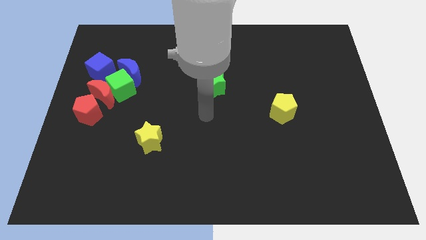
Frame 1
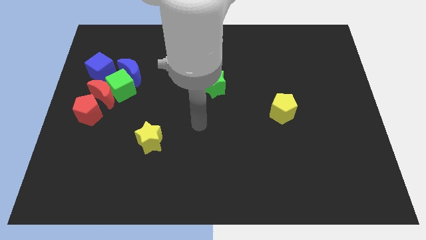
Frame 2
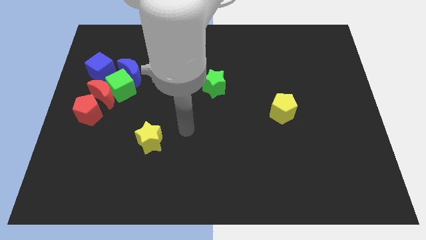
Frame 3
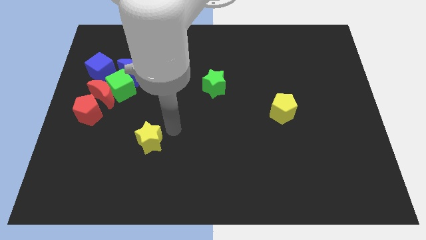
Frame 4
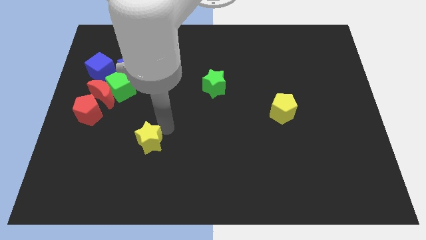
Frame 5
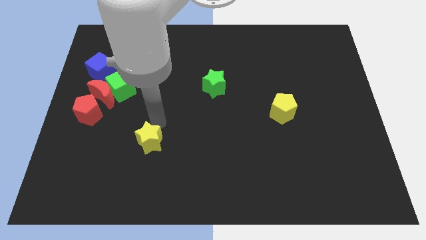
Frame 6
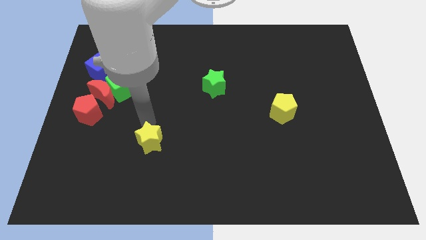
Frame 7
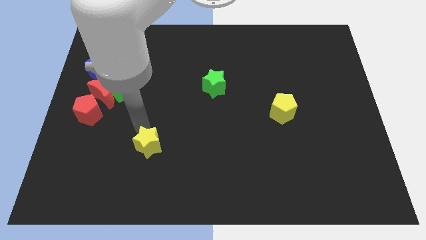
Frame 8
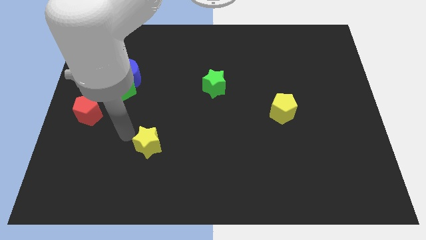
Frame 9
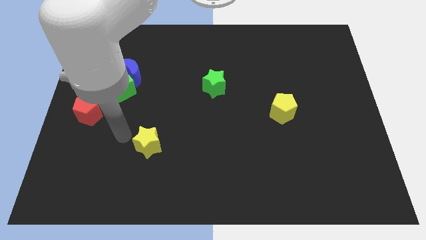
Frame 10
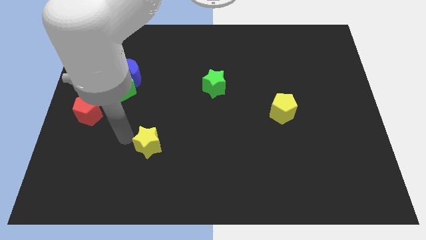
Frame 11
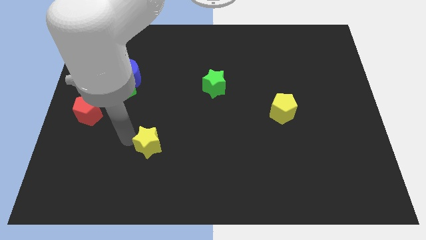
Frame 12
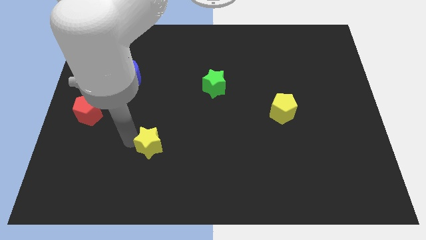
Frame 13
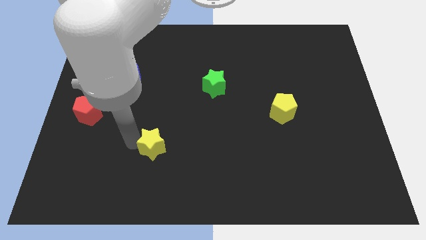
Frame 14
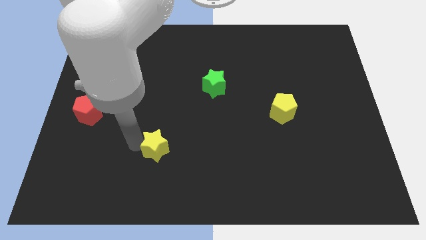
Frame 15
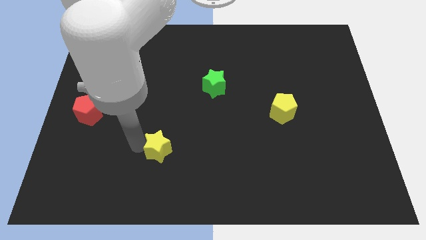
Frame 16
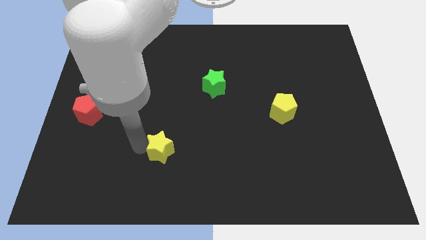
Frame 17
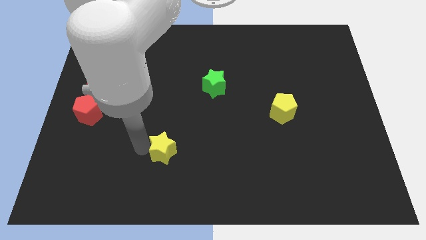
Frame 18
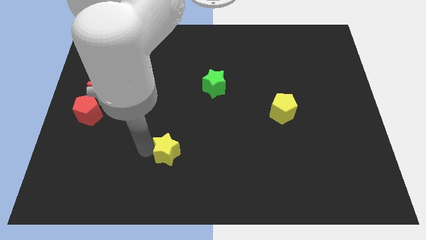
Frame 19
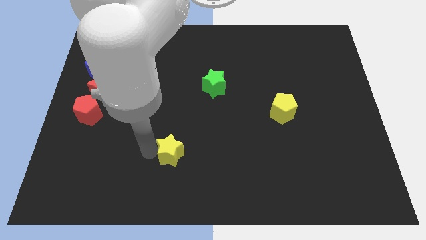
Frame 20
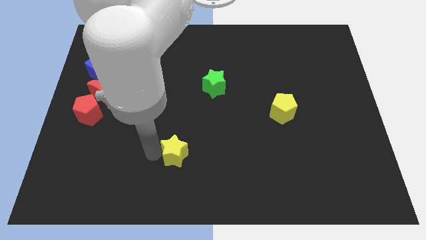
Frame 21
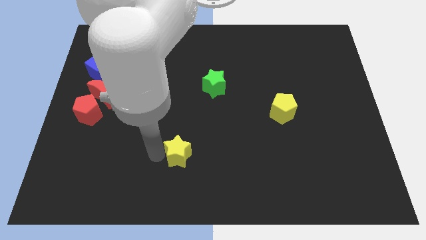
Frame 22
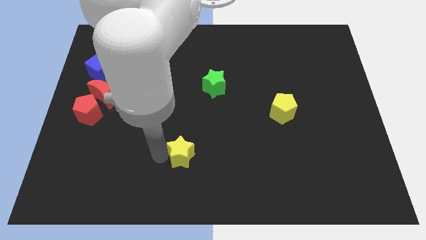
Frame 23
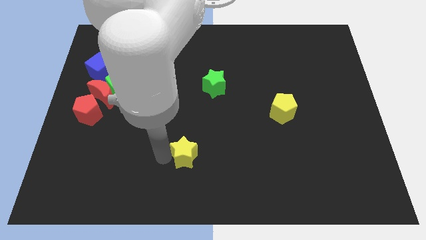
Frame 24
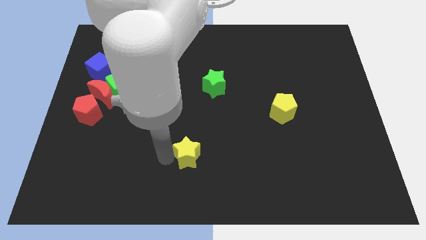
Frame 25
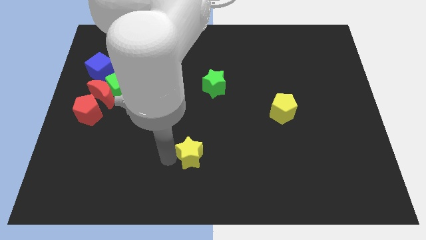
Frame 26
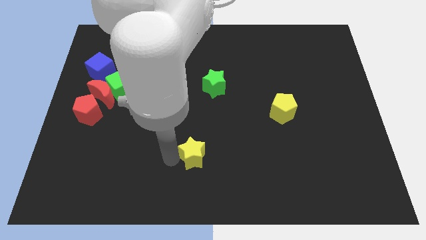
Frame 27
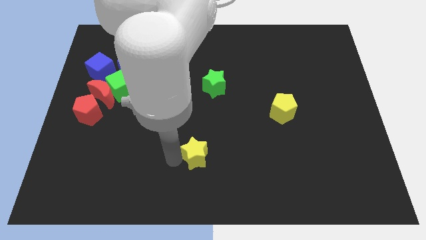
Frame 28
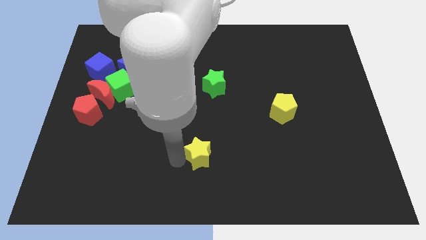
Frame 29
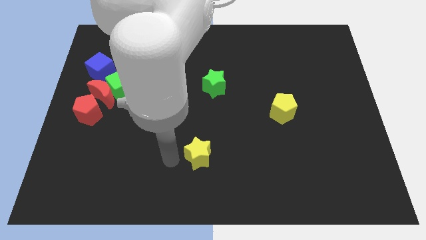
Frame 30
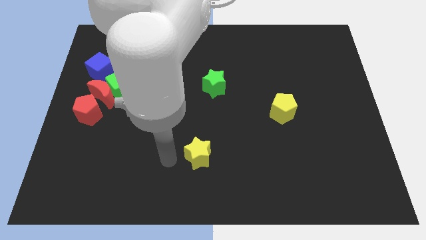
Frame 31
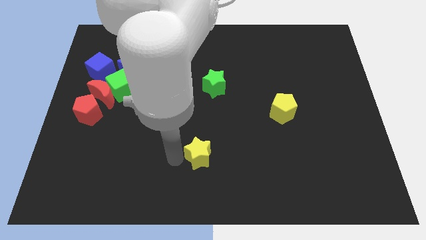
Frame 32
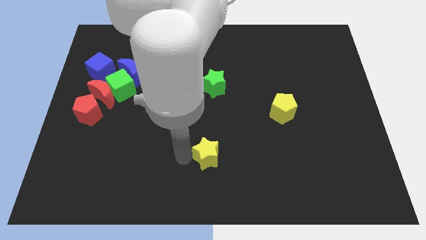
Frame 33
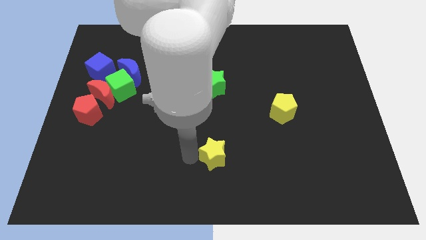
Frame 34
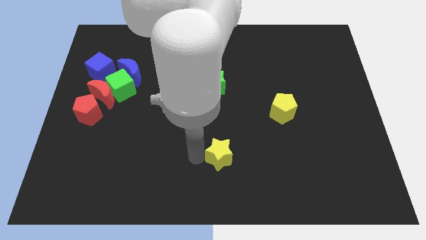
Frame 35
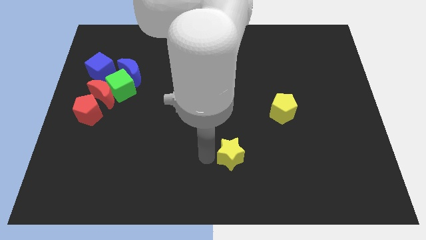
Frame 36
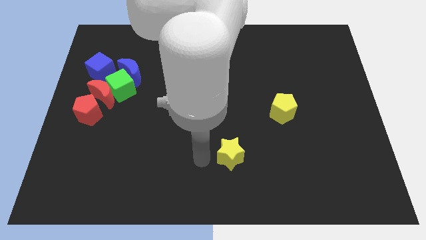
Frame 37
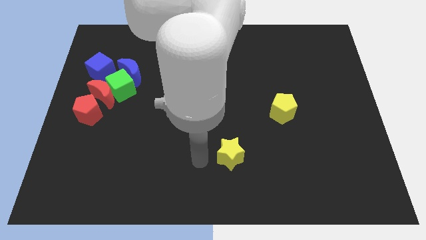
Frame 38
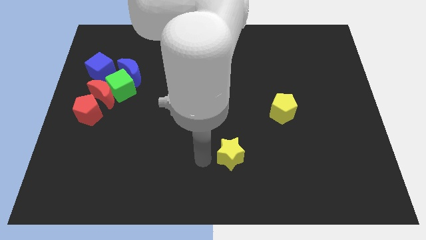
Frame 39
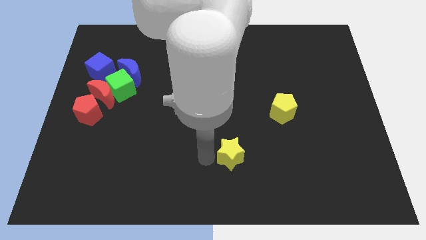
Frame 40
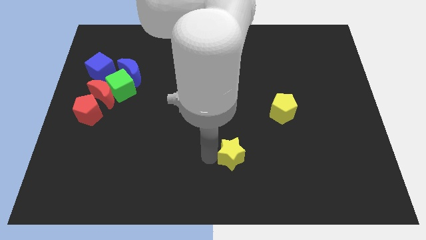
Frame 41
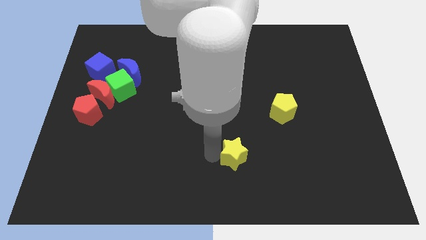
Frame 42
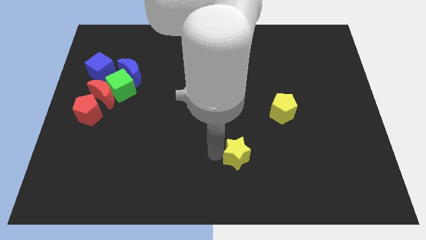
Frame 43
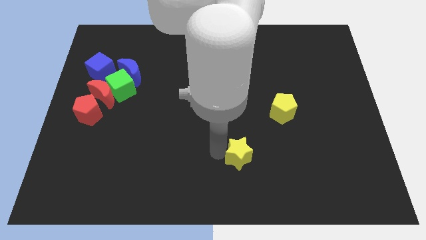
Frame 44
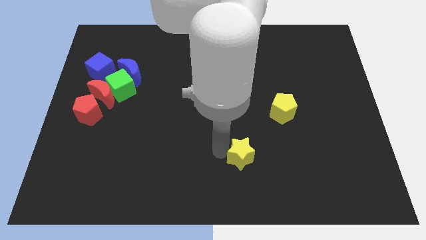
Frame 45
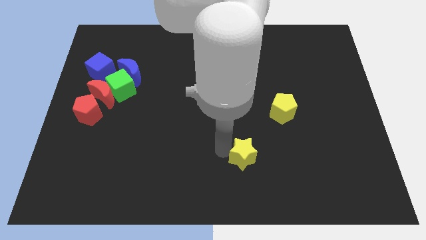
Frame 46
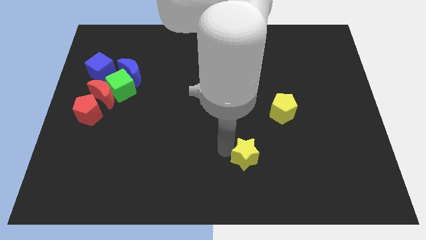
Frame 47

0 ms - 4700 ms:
slide the yellow star to the right

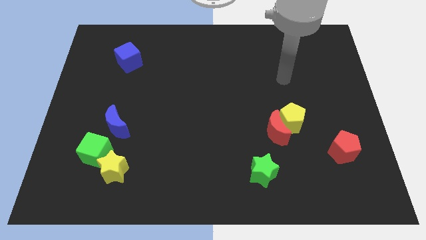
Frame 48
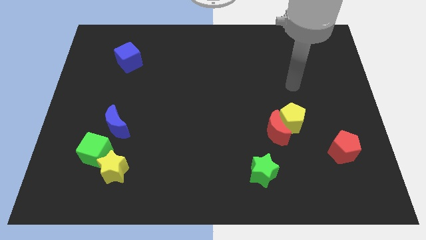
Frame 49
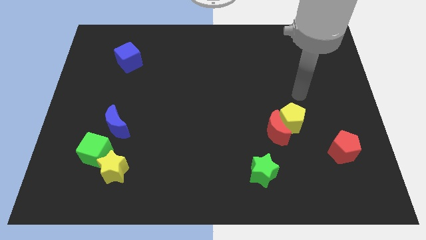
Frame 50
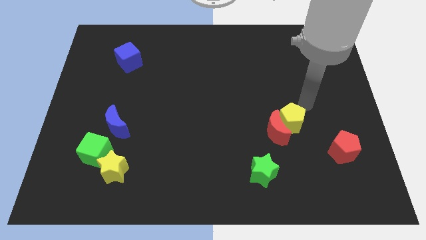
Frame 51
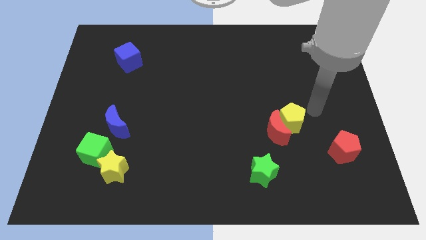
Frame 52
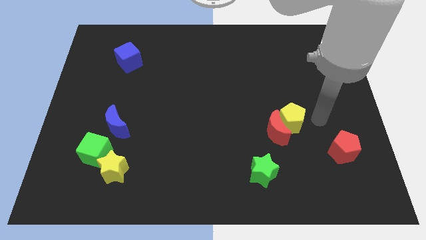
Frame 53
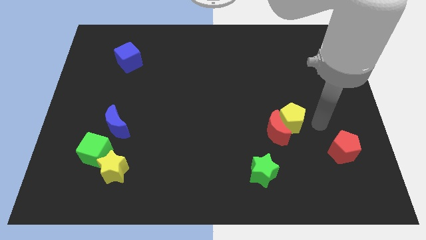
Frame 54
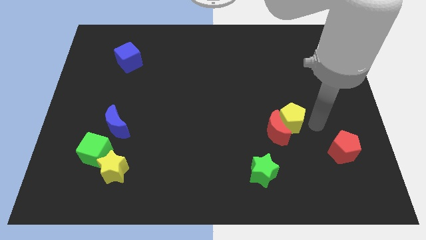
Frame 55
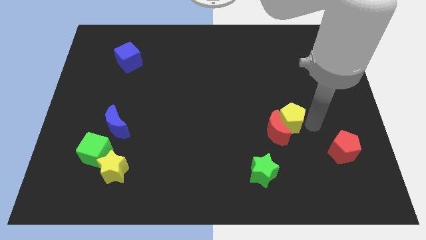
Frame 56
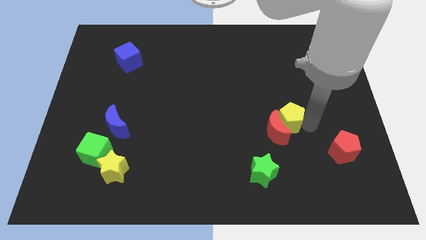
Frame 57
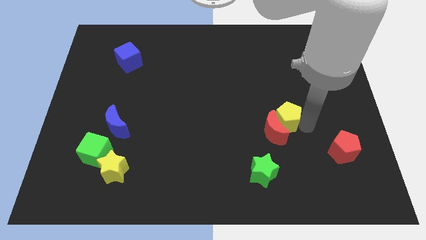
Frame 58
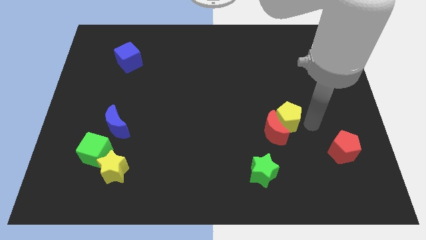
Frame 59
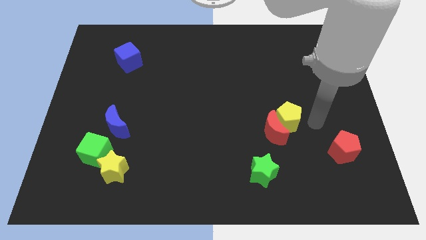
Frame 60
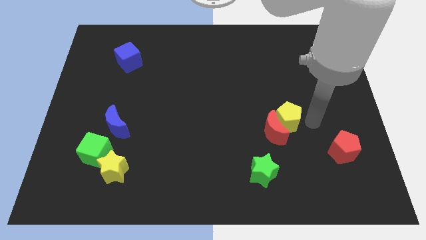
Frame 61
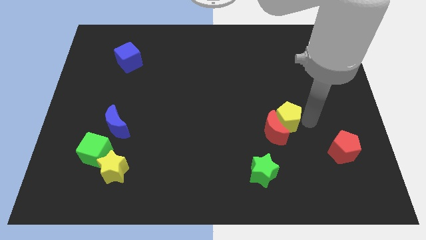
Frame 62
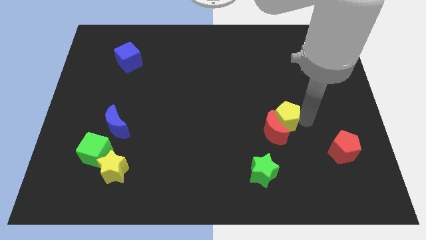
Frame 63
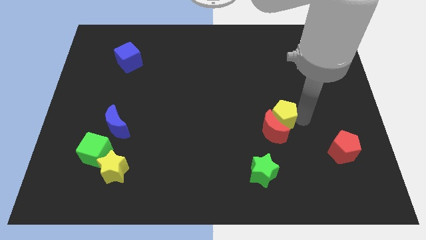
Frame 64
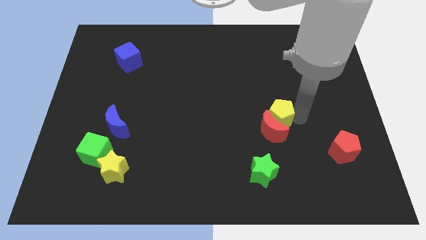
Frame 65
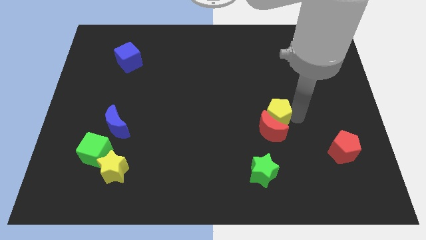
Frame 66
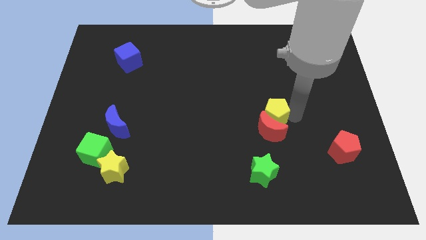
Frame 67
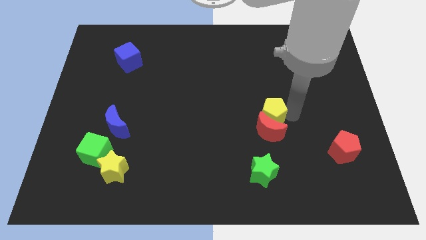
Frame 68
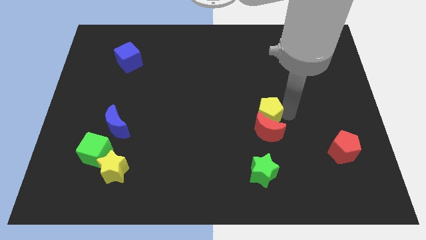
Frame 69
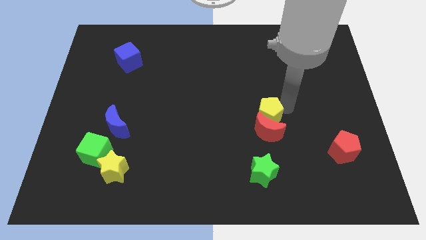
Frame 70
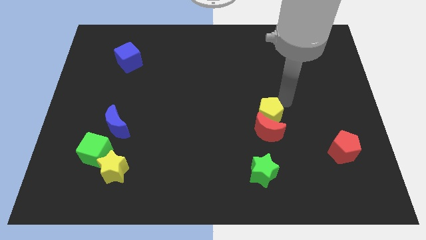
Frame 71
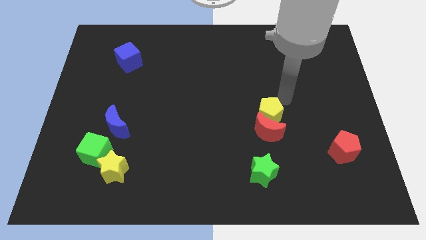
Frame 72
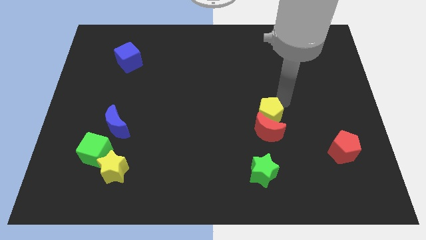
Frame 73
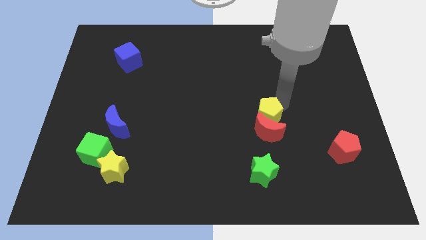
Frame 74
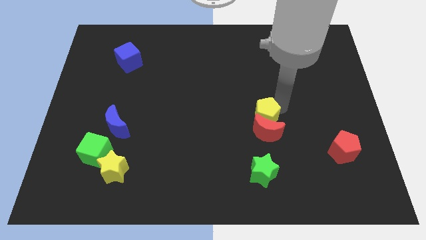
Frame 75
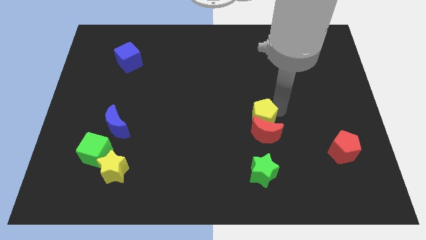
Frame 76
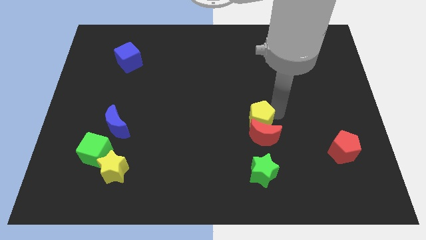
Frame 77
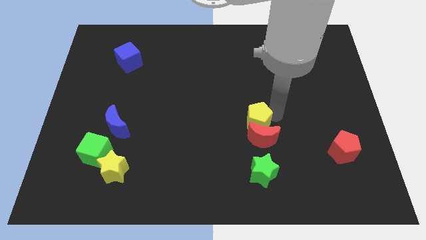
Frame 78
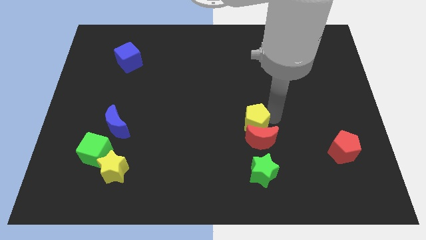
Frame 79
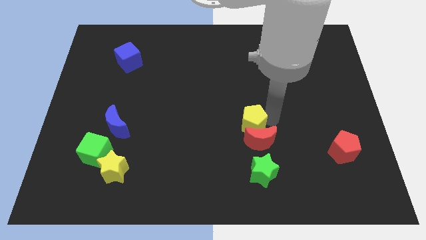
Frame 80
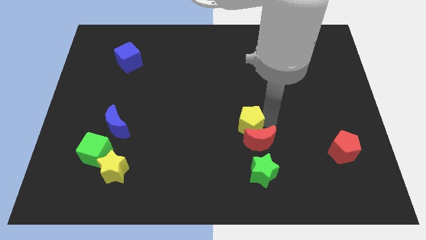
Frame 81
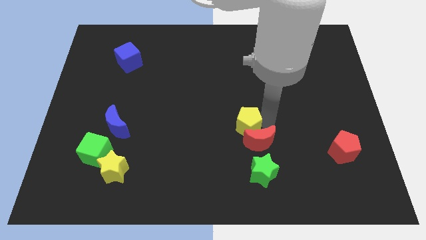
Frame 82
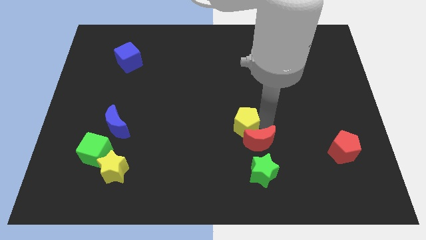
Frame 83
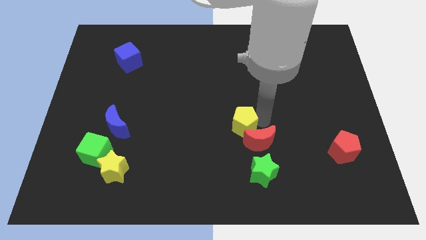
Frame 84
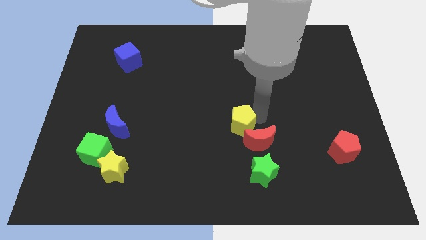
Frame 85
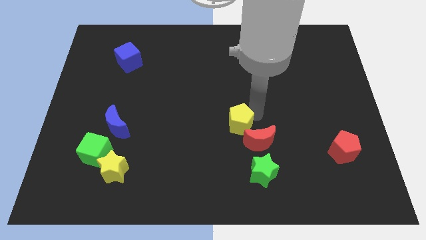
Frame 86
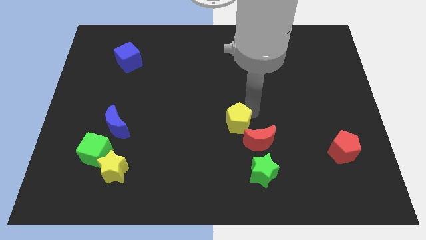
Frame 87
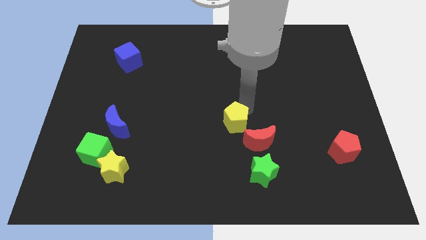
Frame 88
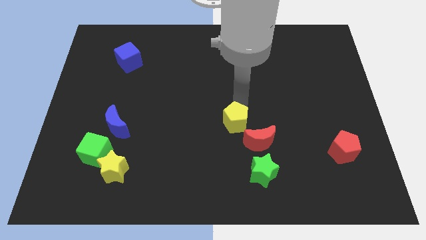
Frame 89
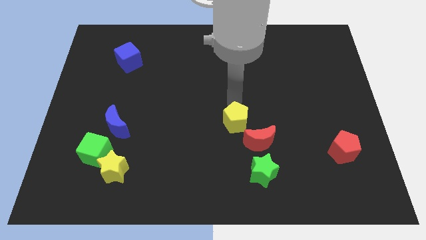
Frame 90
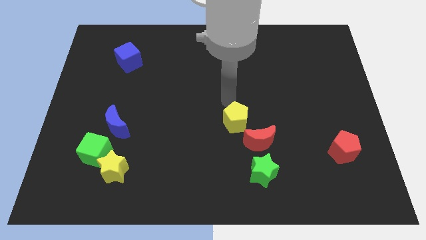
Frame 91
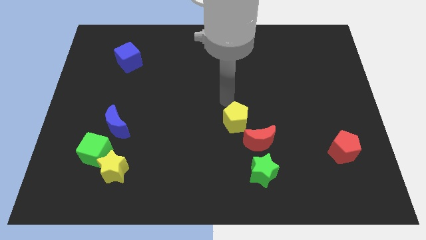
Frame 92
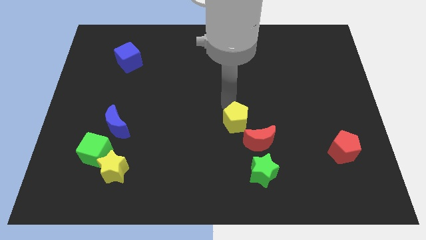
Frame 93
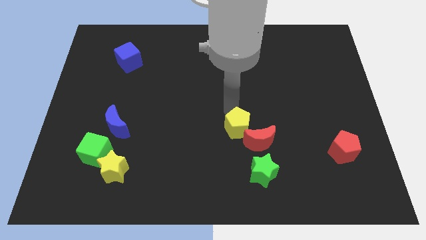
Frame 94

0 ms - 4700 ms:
slide the yellow pentagon downwards and left diagonally a little
